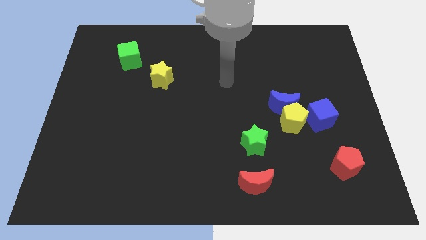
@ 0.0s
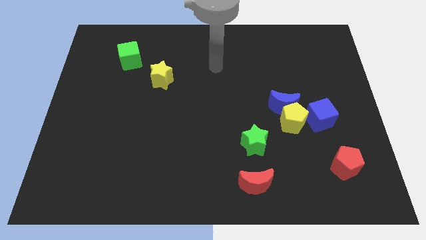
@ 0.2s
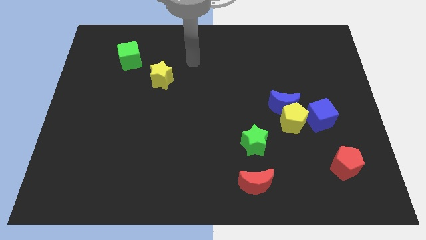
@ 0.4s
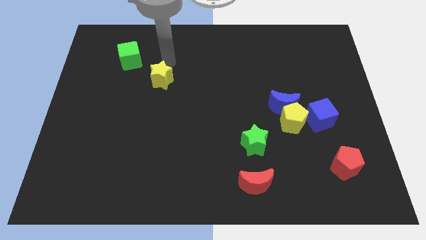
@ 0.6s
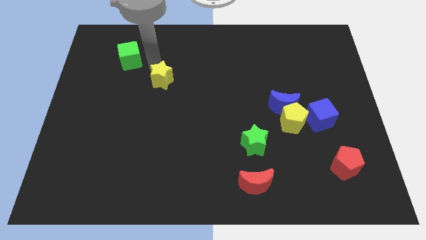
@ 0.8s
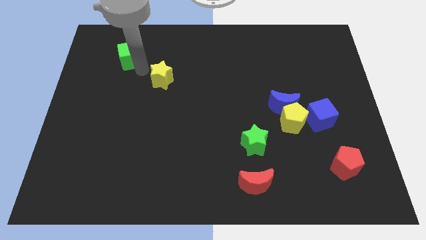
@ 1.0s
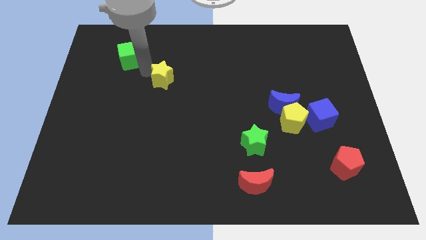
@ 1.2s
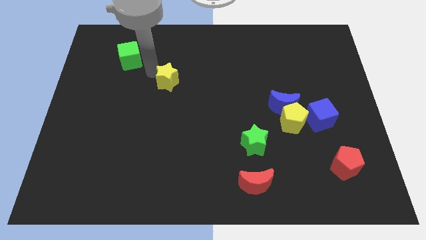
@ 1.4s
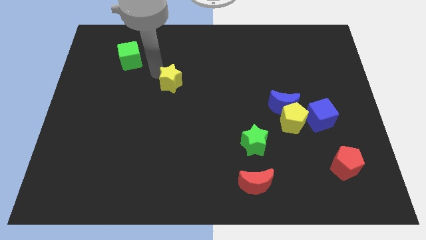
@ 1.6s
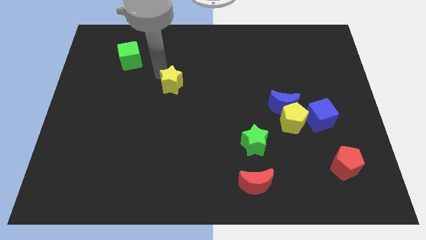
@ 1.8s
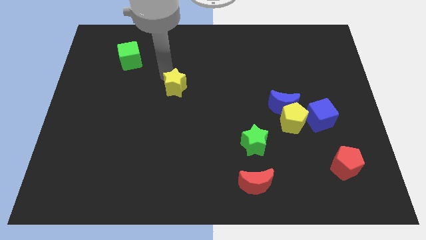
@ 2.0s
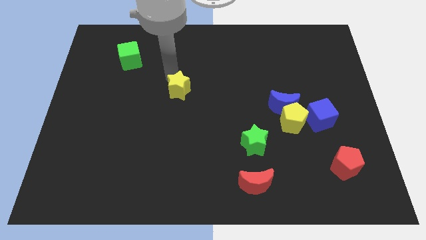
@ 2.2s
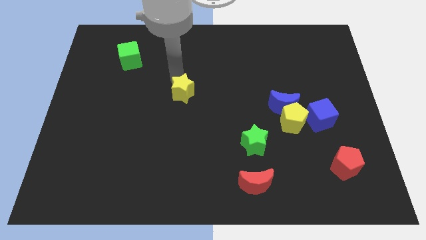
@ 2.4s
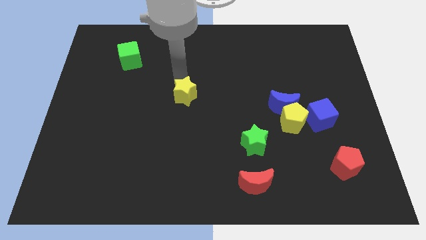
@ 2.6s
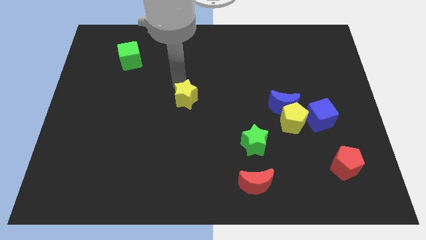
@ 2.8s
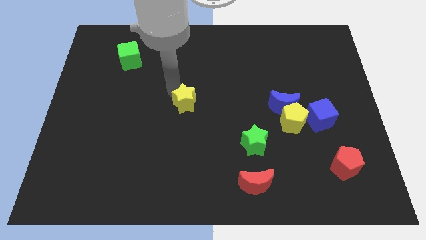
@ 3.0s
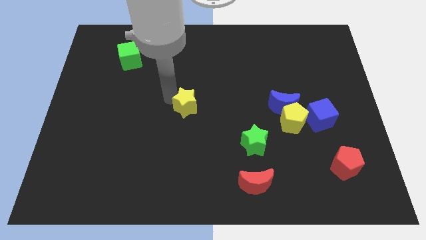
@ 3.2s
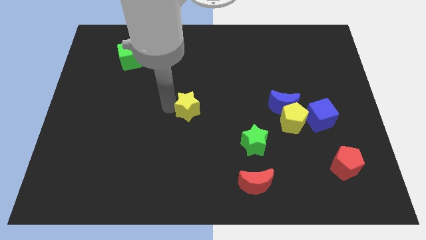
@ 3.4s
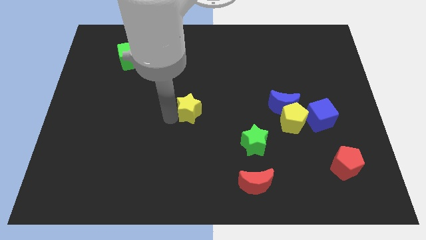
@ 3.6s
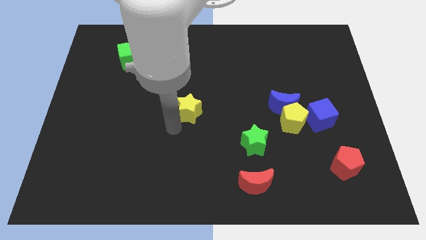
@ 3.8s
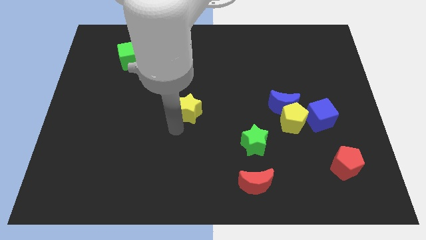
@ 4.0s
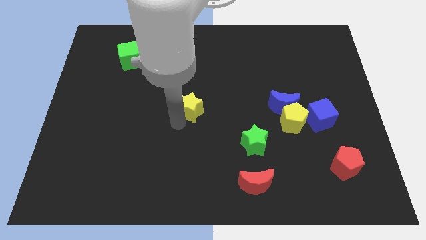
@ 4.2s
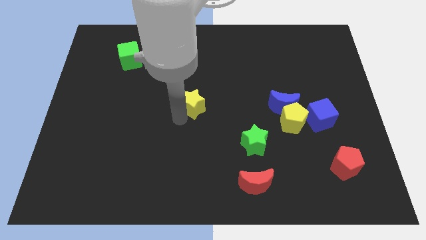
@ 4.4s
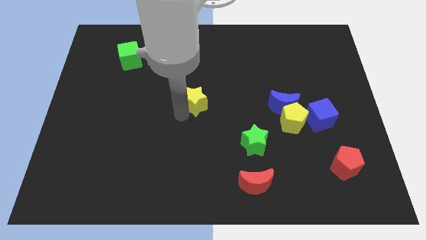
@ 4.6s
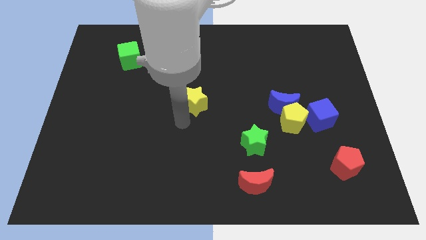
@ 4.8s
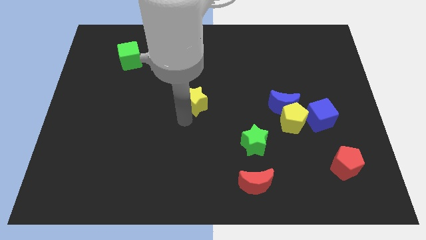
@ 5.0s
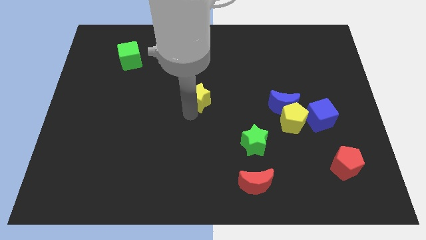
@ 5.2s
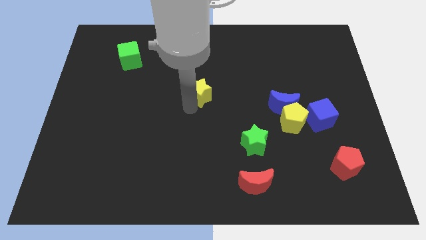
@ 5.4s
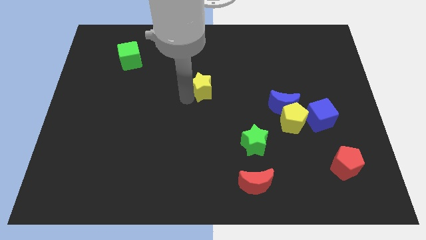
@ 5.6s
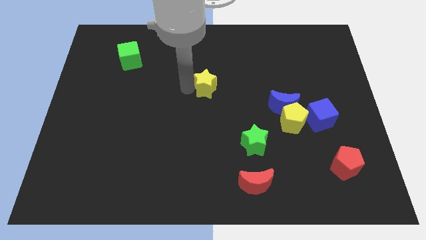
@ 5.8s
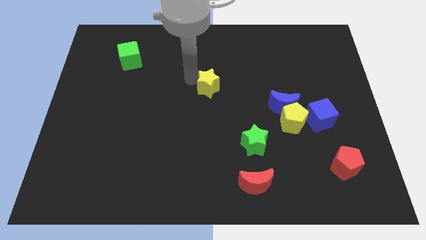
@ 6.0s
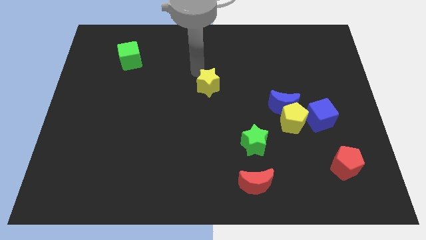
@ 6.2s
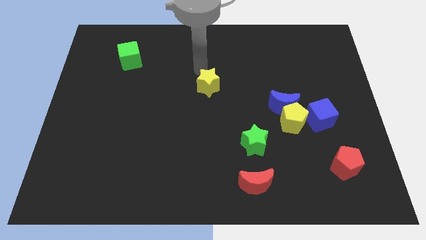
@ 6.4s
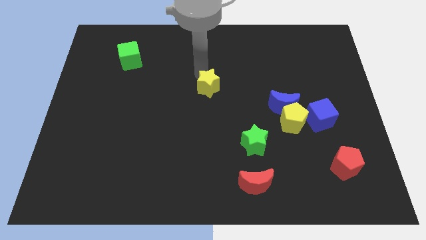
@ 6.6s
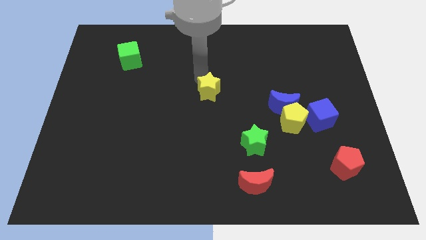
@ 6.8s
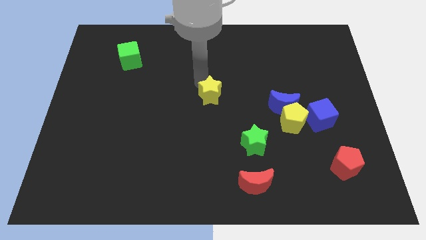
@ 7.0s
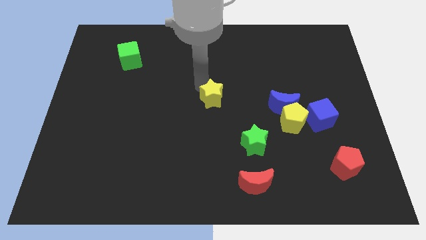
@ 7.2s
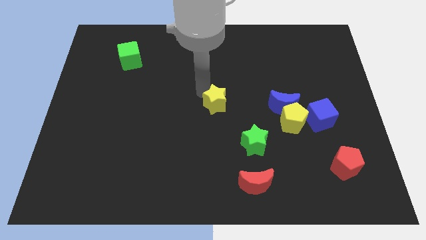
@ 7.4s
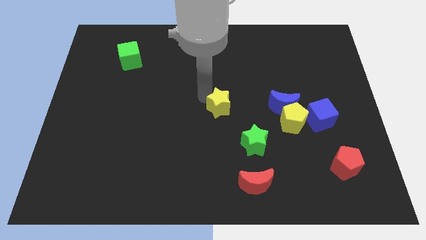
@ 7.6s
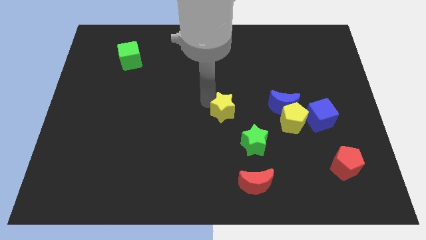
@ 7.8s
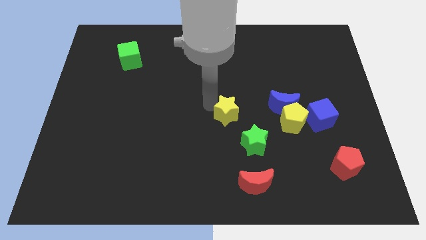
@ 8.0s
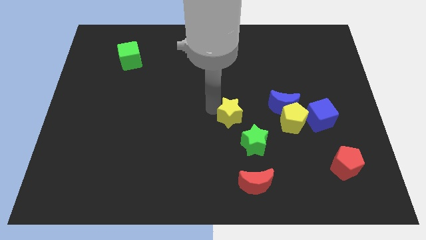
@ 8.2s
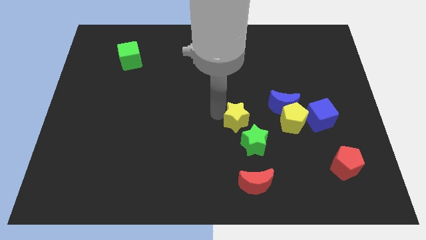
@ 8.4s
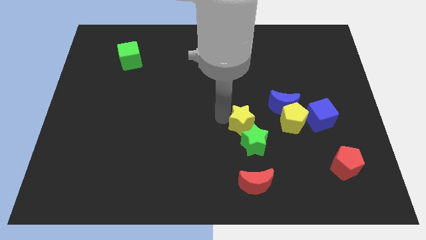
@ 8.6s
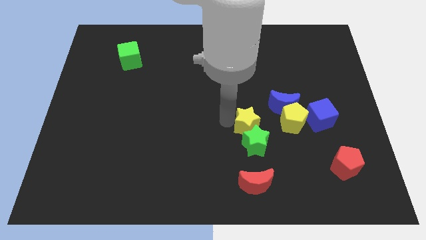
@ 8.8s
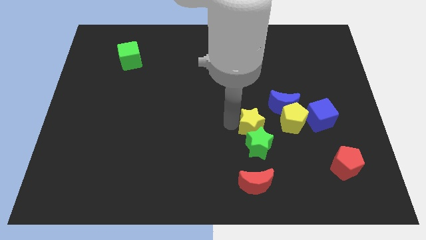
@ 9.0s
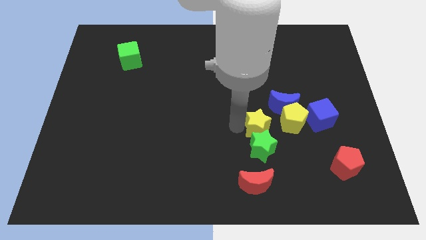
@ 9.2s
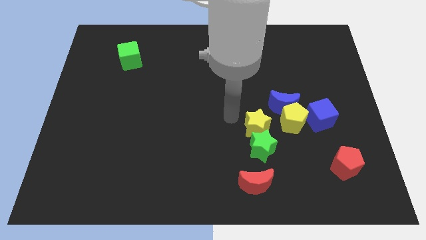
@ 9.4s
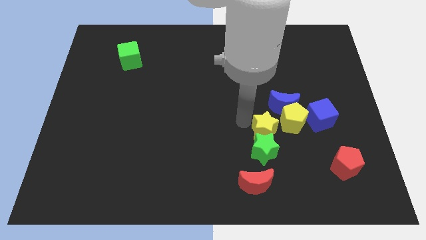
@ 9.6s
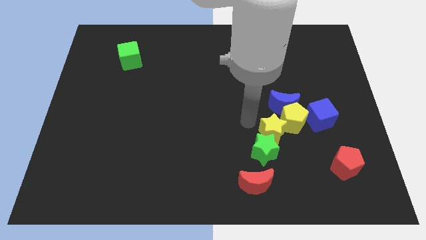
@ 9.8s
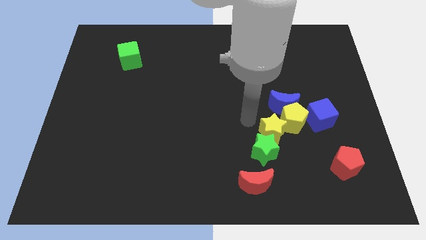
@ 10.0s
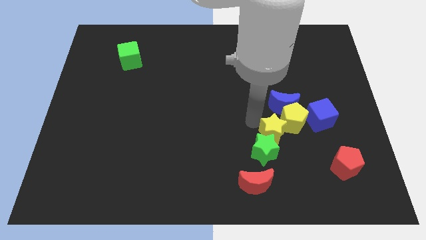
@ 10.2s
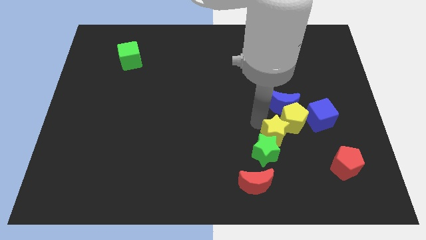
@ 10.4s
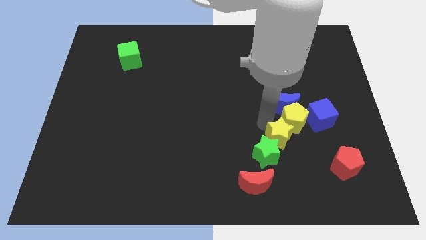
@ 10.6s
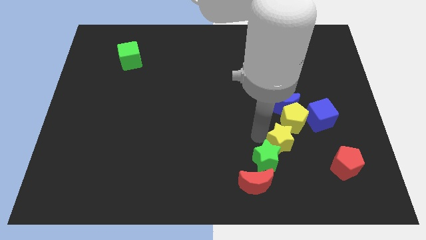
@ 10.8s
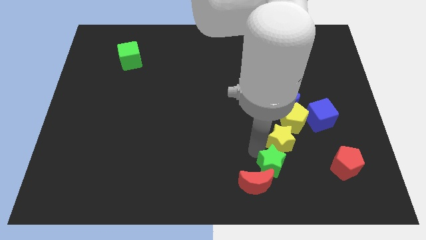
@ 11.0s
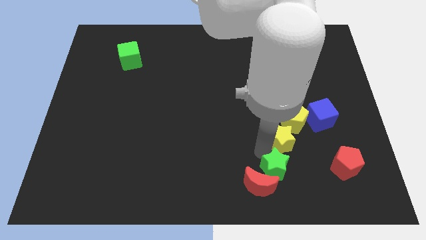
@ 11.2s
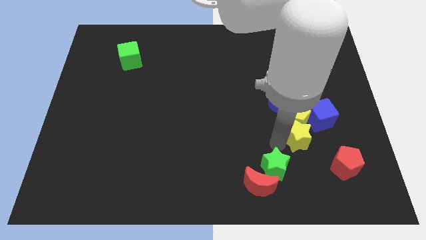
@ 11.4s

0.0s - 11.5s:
push the yellow star to the bottom right of the blue moon

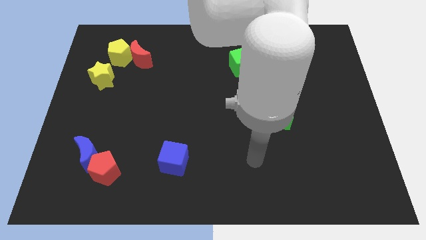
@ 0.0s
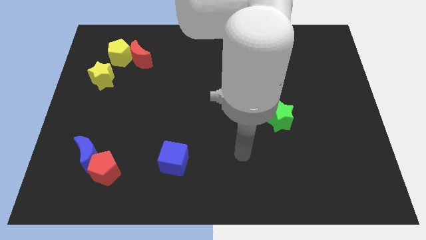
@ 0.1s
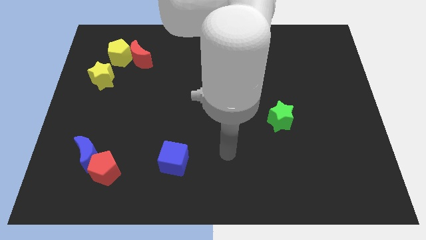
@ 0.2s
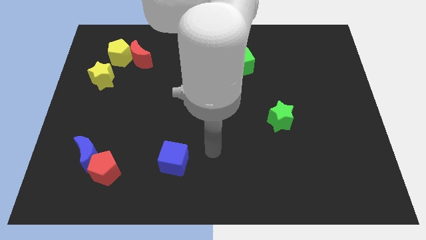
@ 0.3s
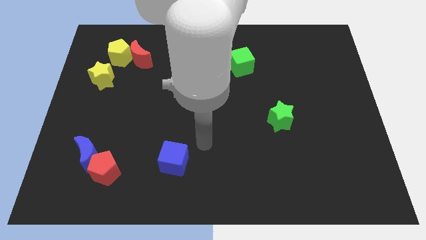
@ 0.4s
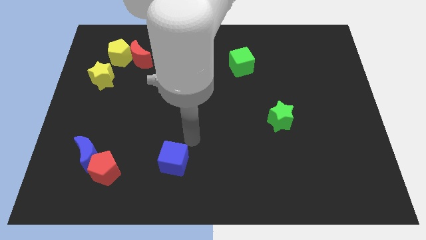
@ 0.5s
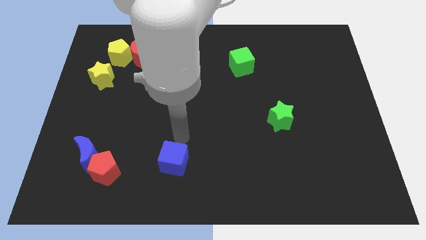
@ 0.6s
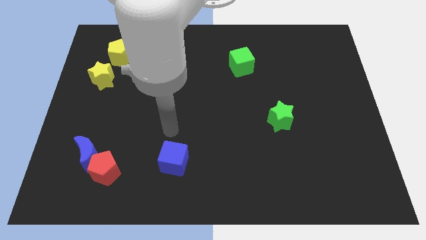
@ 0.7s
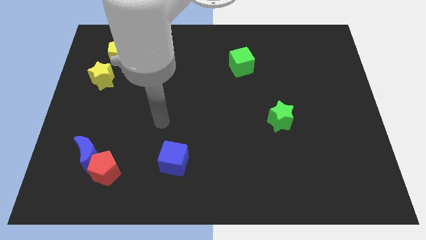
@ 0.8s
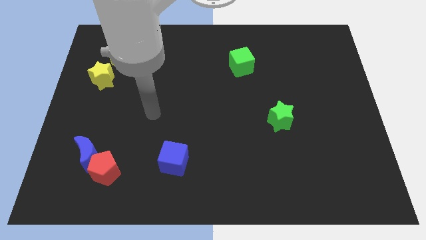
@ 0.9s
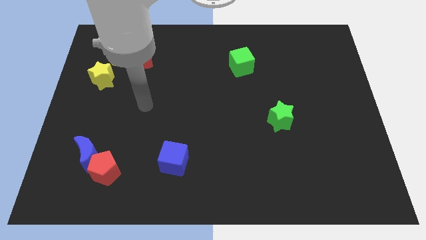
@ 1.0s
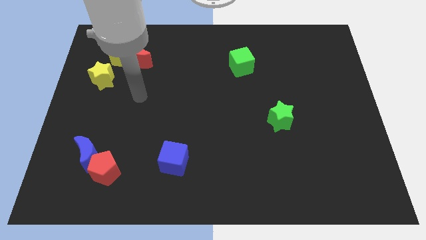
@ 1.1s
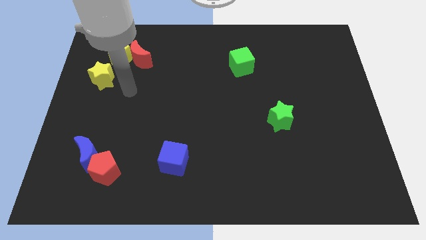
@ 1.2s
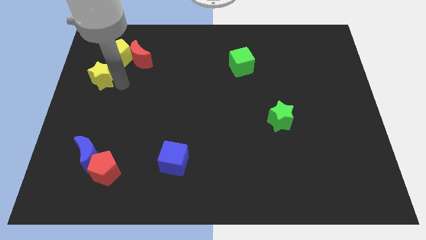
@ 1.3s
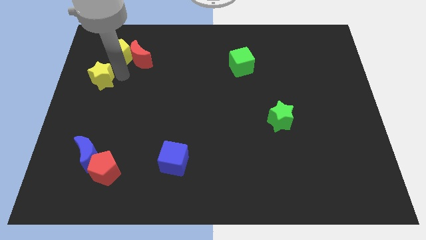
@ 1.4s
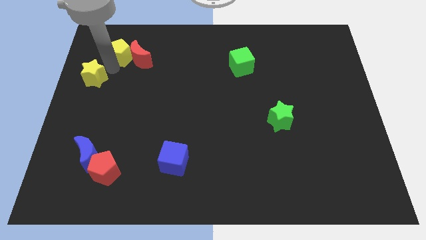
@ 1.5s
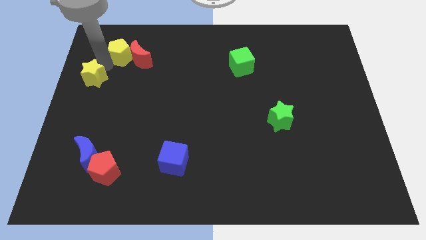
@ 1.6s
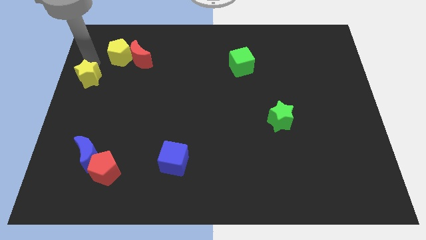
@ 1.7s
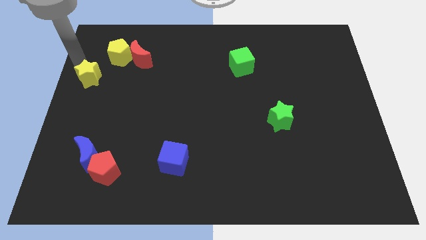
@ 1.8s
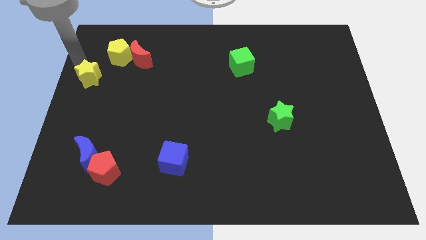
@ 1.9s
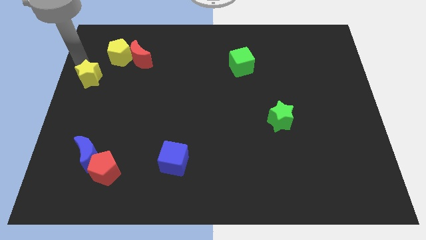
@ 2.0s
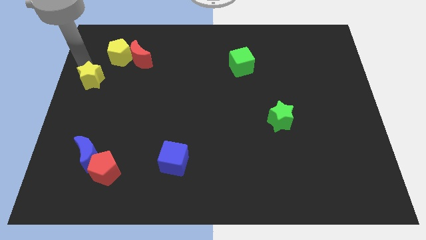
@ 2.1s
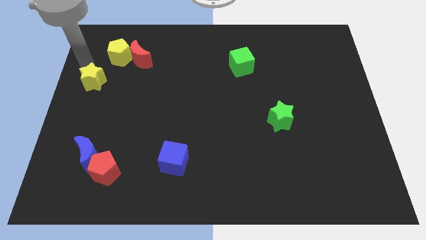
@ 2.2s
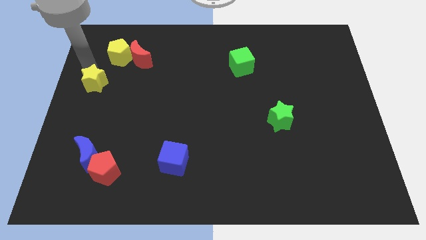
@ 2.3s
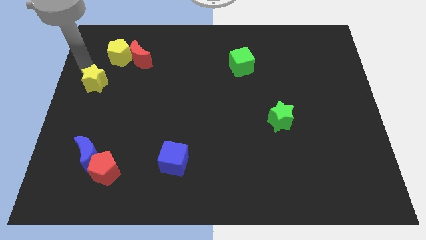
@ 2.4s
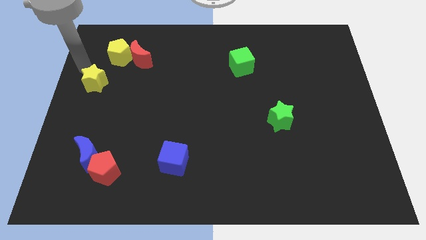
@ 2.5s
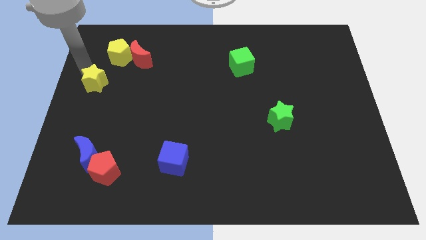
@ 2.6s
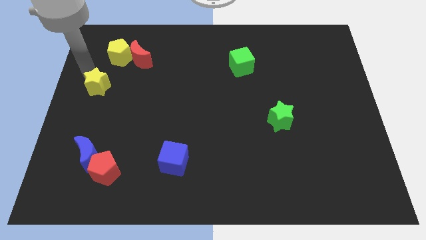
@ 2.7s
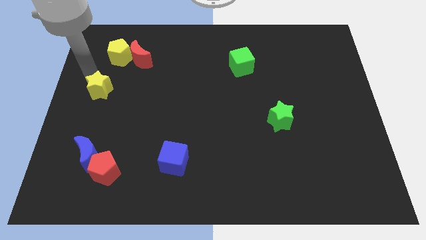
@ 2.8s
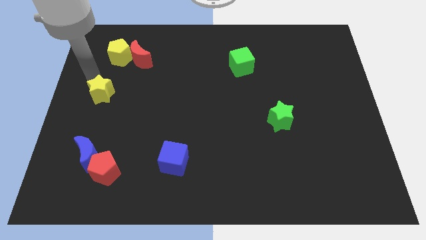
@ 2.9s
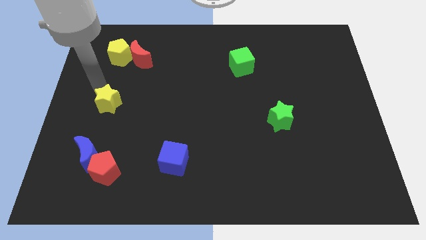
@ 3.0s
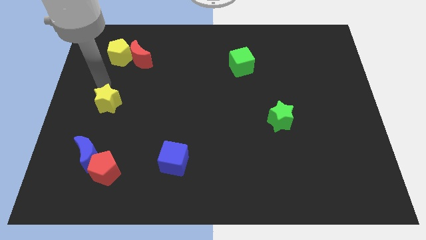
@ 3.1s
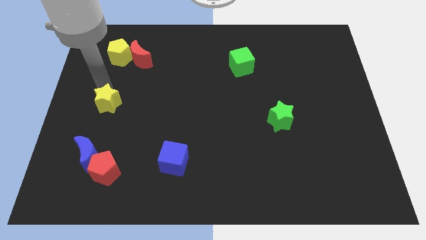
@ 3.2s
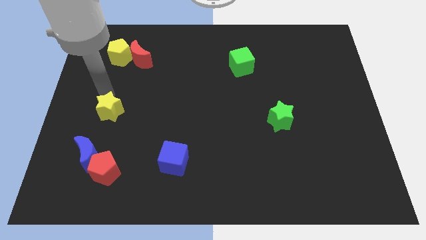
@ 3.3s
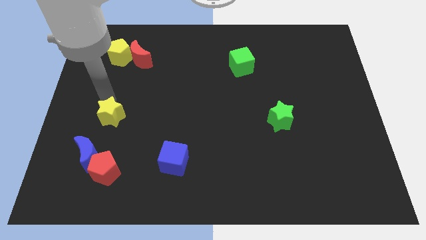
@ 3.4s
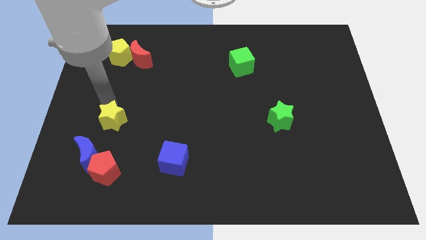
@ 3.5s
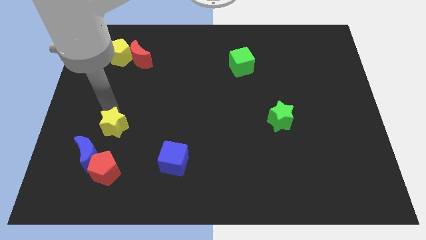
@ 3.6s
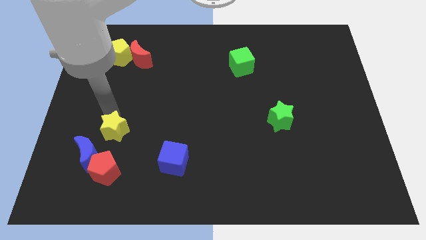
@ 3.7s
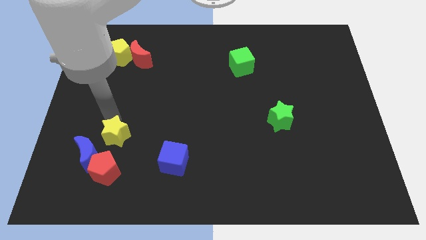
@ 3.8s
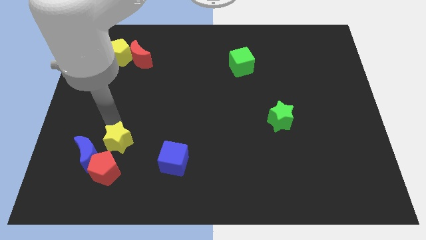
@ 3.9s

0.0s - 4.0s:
put the yellow star left of the blue cube
